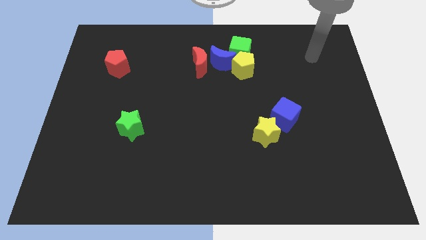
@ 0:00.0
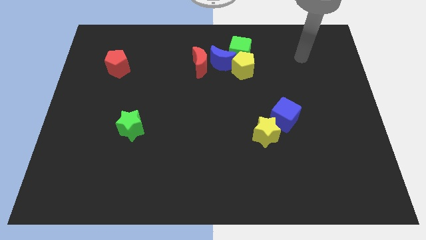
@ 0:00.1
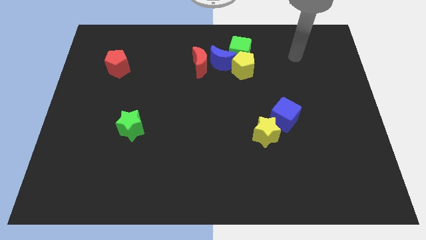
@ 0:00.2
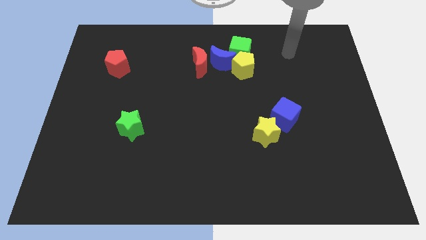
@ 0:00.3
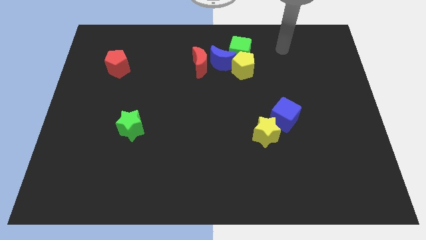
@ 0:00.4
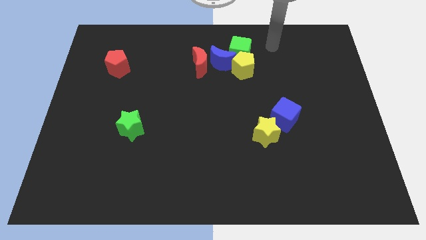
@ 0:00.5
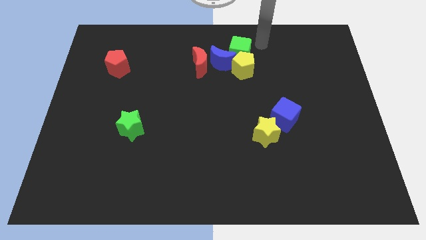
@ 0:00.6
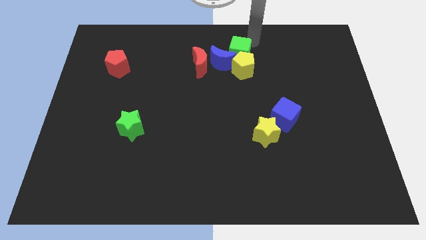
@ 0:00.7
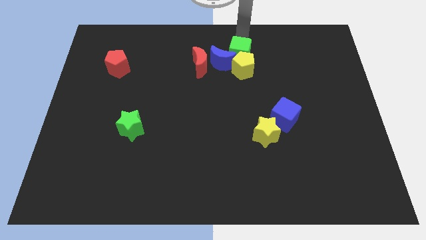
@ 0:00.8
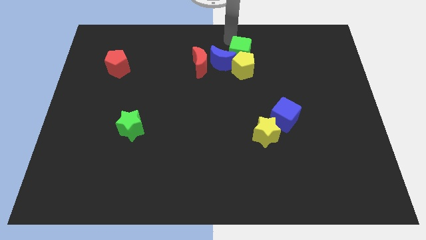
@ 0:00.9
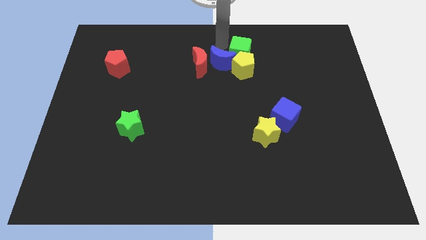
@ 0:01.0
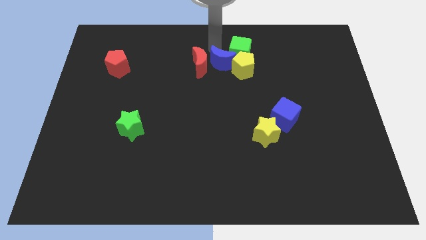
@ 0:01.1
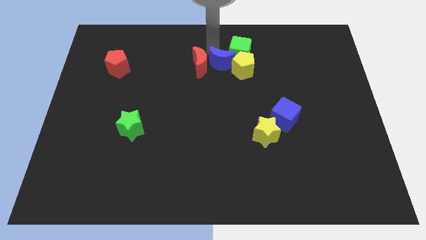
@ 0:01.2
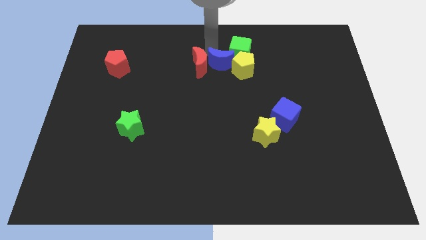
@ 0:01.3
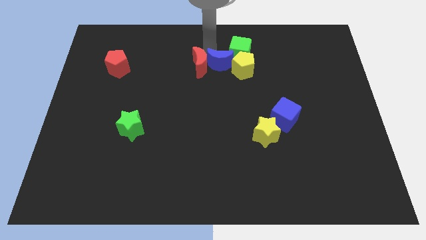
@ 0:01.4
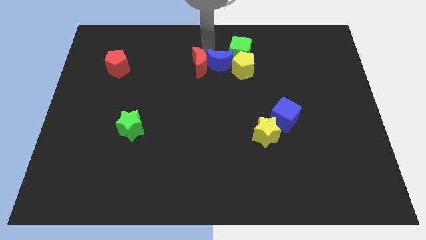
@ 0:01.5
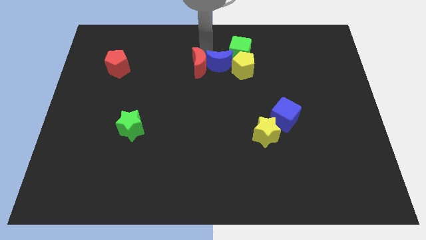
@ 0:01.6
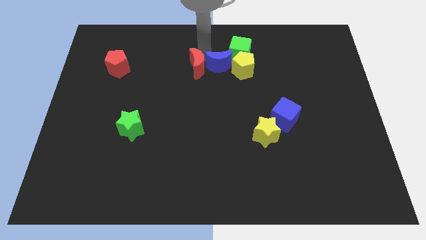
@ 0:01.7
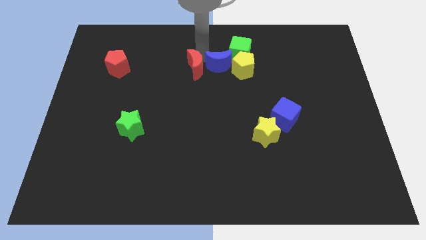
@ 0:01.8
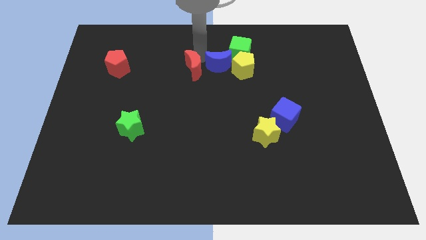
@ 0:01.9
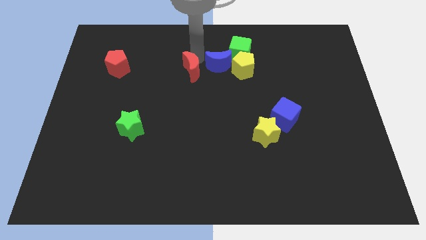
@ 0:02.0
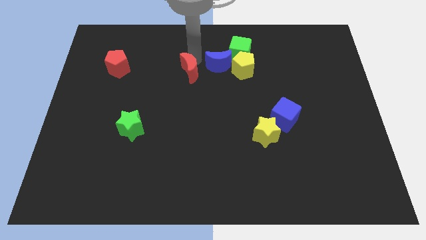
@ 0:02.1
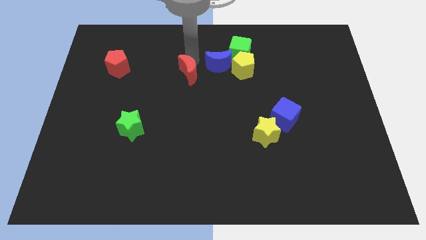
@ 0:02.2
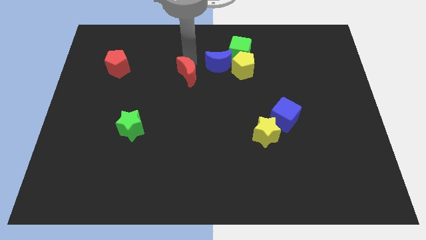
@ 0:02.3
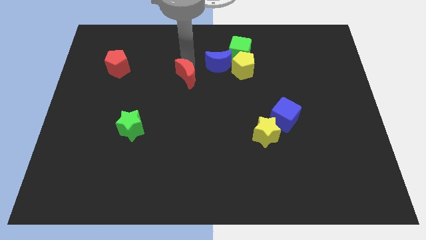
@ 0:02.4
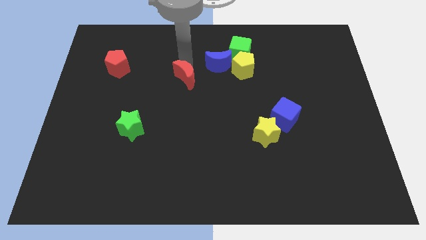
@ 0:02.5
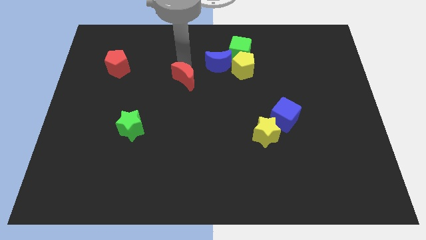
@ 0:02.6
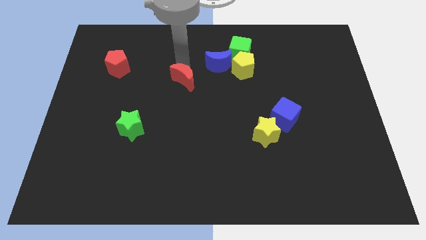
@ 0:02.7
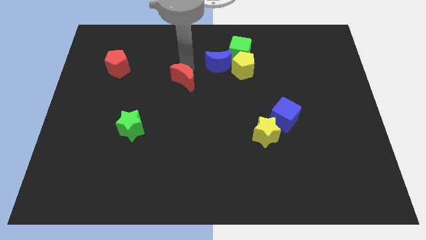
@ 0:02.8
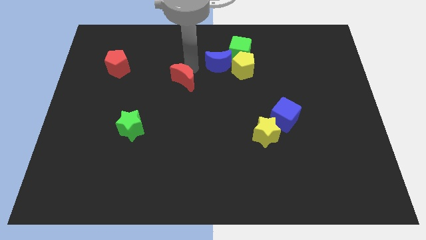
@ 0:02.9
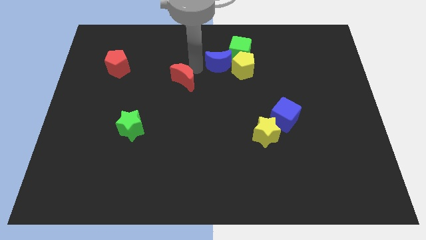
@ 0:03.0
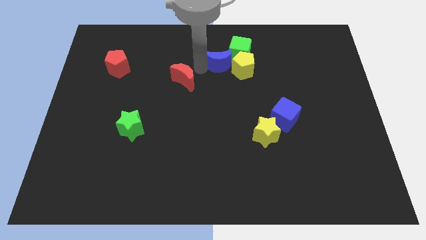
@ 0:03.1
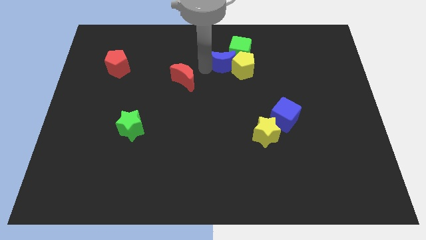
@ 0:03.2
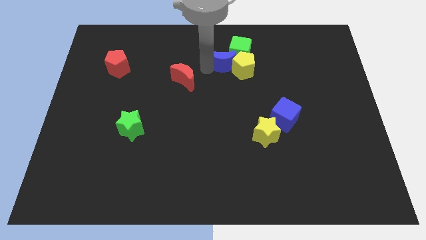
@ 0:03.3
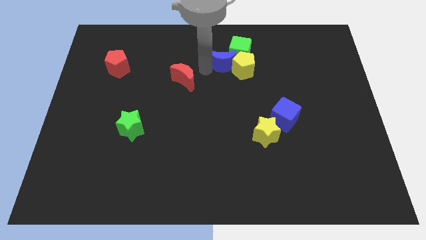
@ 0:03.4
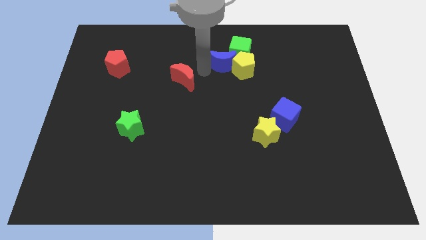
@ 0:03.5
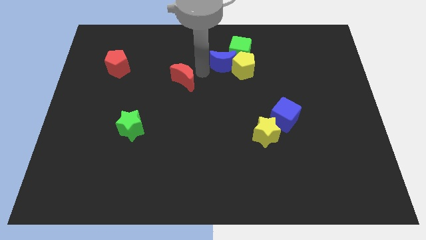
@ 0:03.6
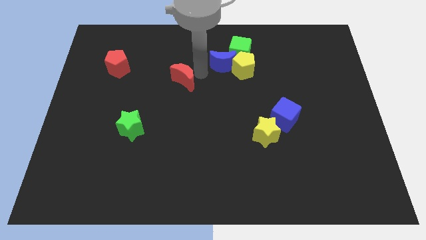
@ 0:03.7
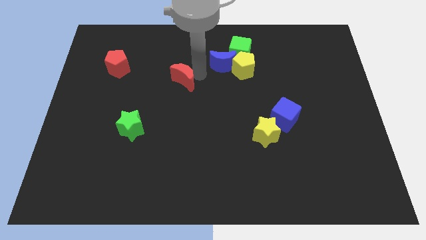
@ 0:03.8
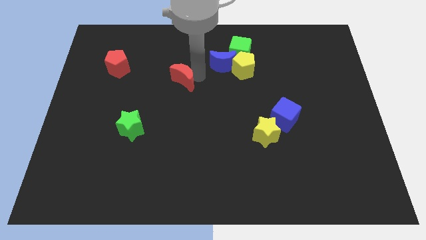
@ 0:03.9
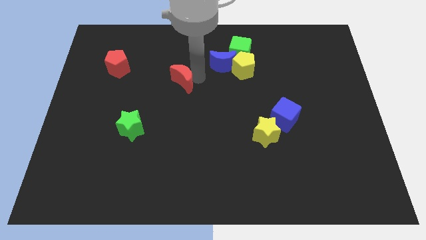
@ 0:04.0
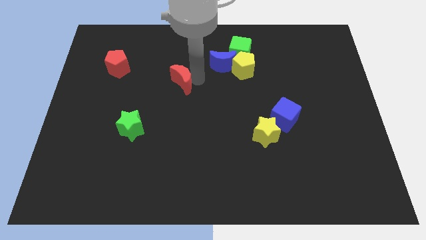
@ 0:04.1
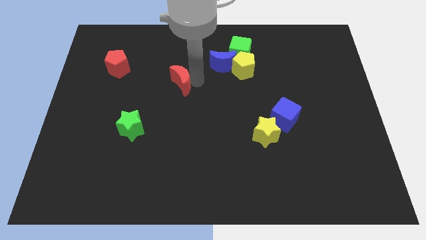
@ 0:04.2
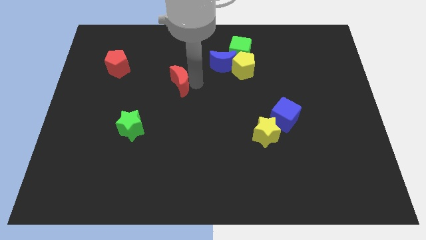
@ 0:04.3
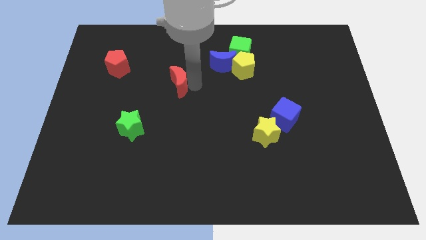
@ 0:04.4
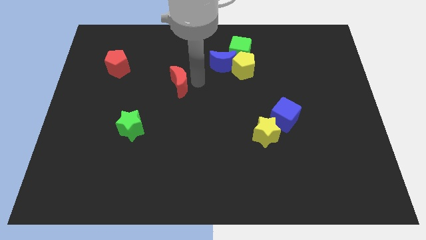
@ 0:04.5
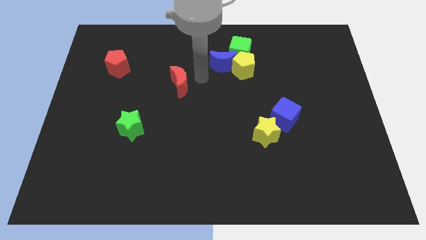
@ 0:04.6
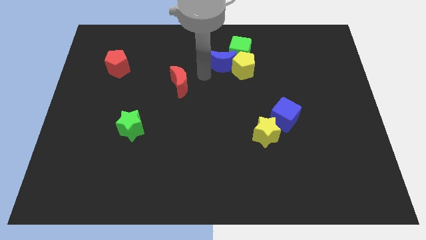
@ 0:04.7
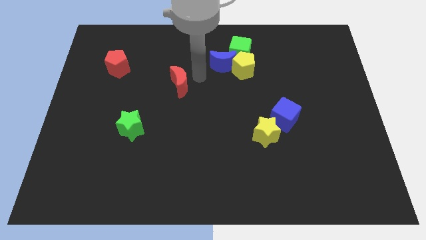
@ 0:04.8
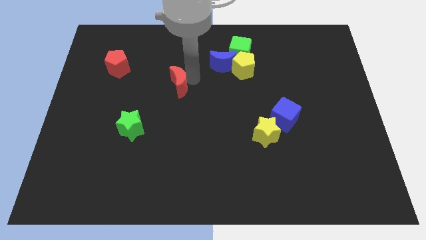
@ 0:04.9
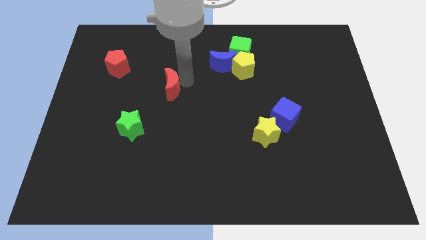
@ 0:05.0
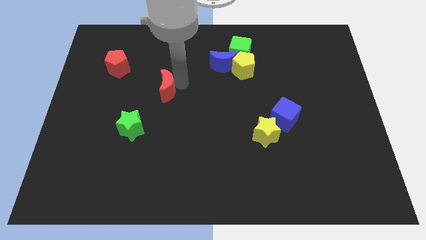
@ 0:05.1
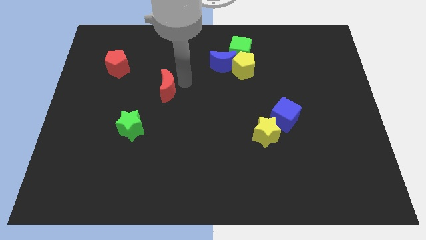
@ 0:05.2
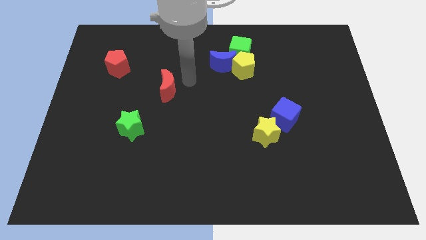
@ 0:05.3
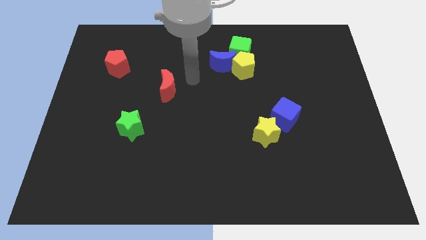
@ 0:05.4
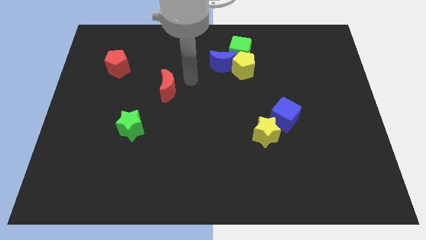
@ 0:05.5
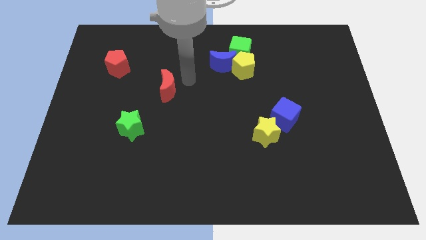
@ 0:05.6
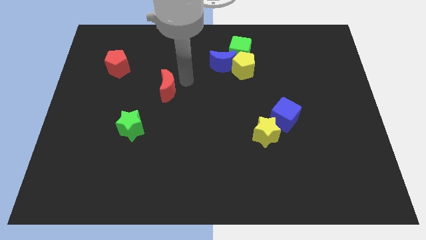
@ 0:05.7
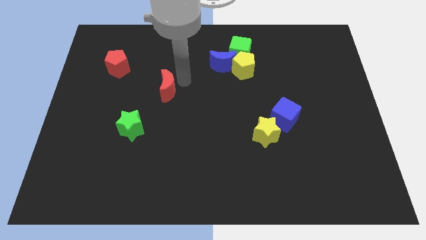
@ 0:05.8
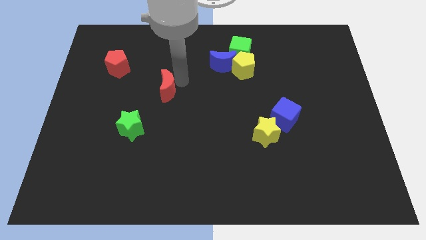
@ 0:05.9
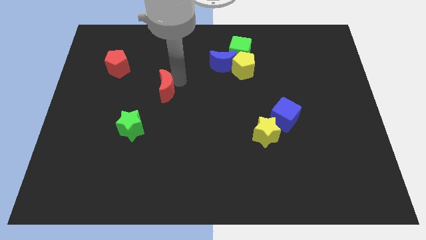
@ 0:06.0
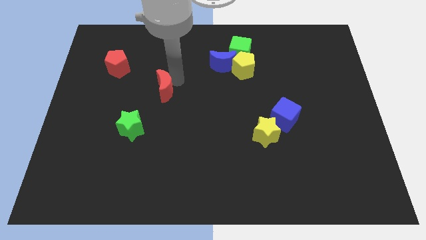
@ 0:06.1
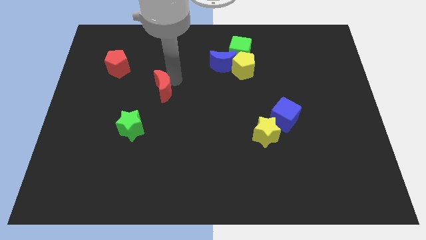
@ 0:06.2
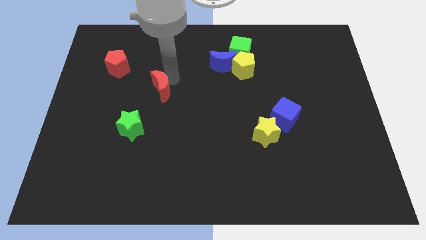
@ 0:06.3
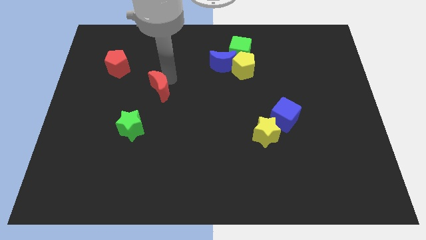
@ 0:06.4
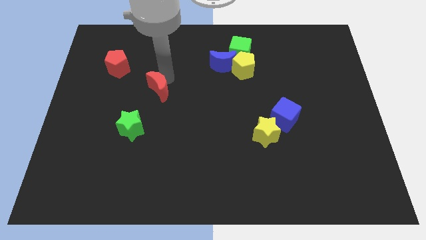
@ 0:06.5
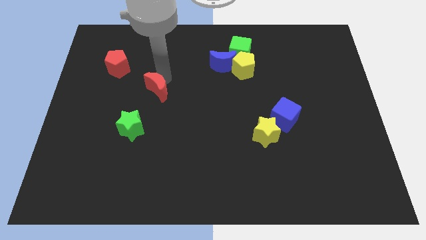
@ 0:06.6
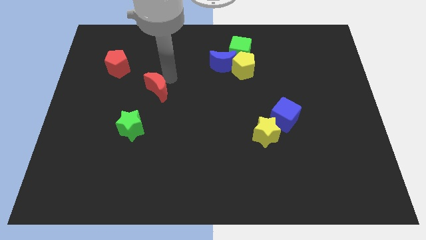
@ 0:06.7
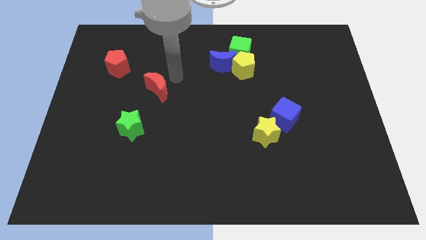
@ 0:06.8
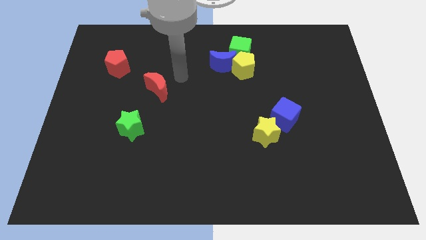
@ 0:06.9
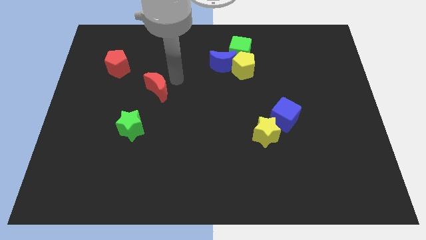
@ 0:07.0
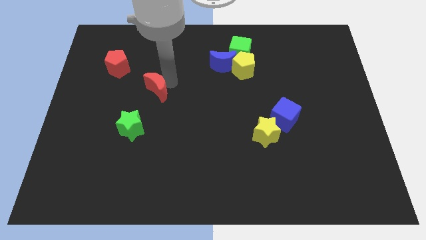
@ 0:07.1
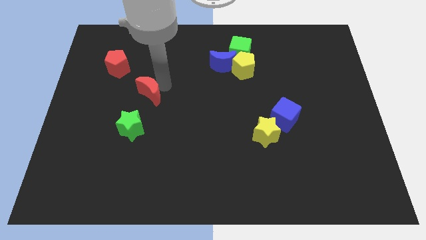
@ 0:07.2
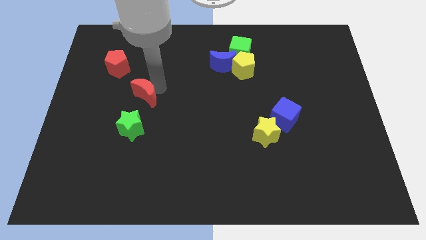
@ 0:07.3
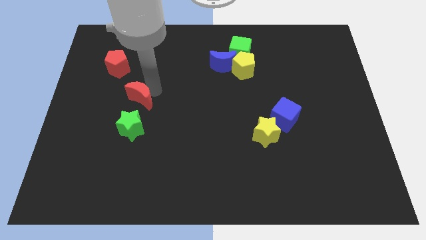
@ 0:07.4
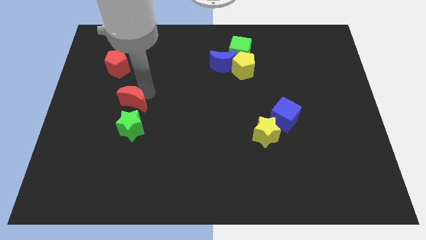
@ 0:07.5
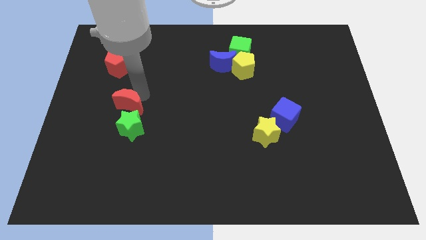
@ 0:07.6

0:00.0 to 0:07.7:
move the red moon downwards and left diagonally

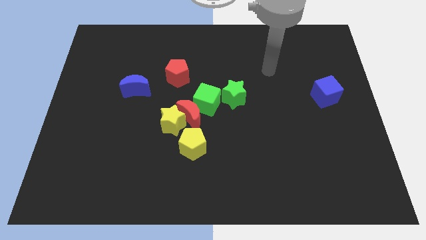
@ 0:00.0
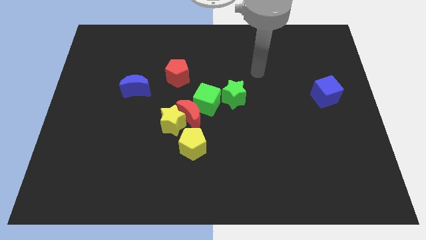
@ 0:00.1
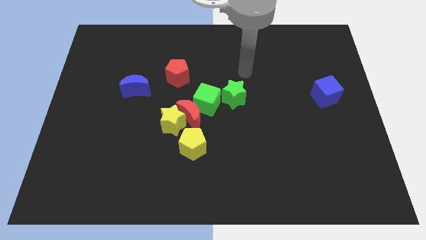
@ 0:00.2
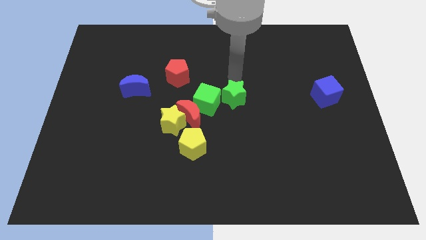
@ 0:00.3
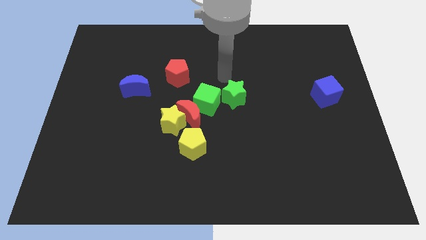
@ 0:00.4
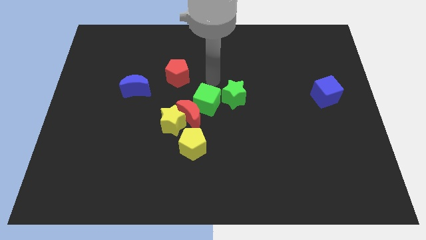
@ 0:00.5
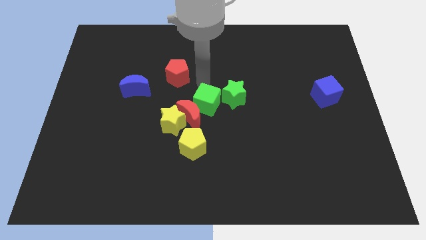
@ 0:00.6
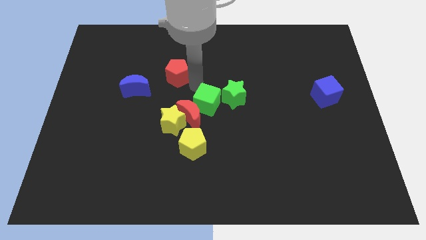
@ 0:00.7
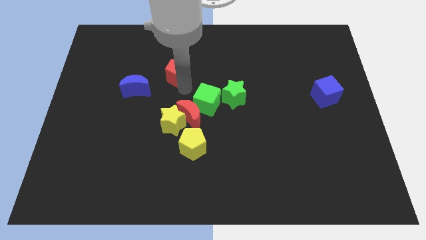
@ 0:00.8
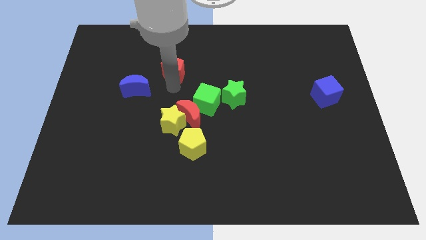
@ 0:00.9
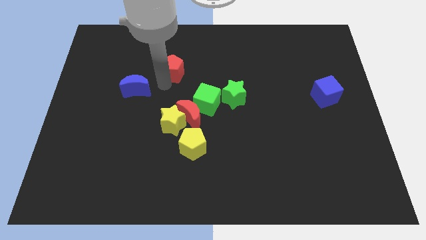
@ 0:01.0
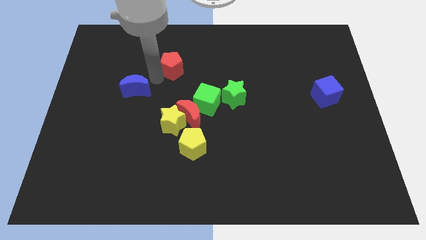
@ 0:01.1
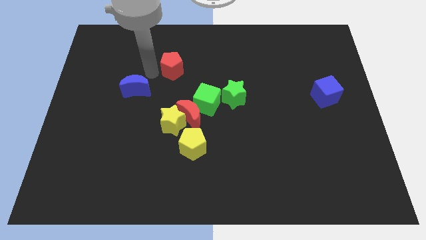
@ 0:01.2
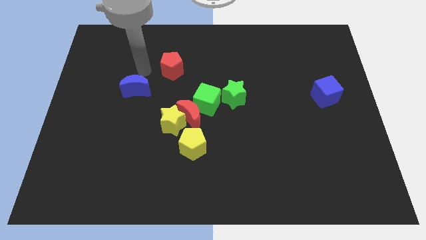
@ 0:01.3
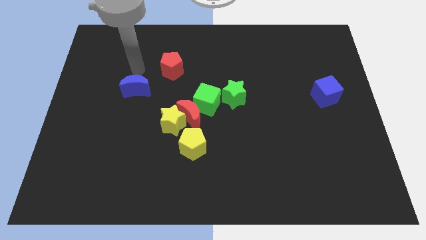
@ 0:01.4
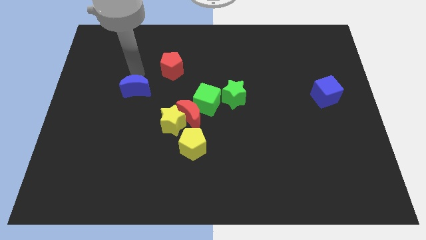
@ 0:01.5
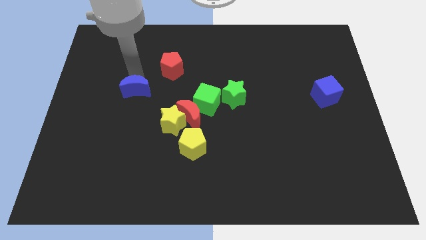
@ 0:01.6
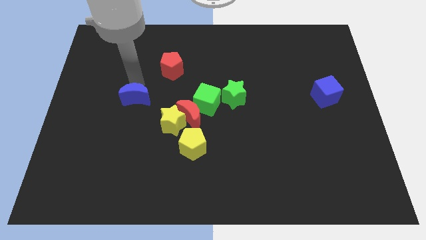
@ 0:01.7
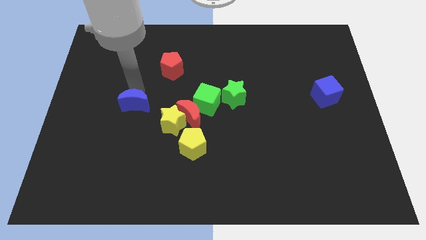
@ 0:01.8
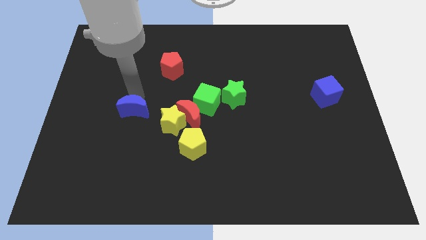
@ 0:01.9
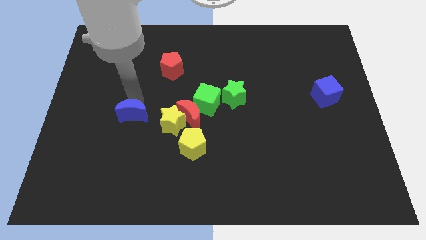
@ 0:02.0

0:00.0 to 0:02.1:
slide the blue moon a bit downwards
